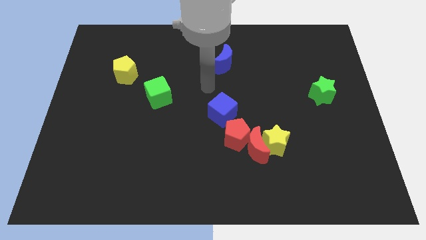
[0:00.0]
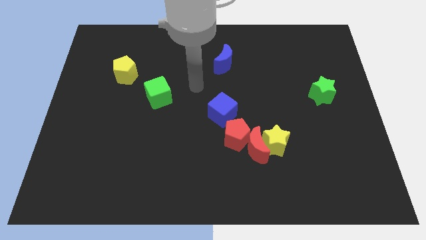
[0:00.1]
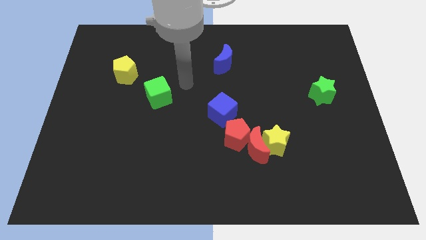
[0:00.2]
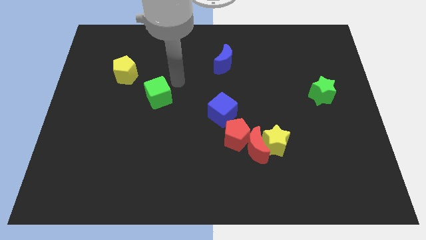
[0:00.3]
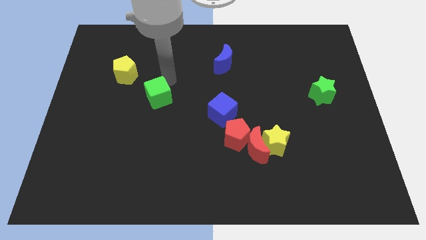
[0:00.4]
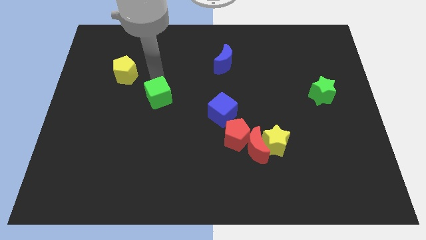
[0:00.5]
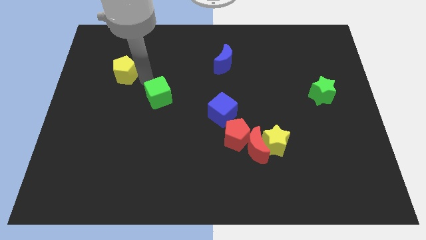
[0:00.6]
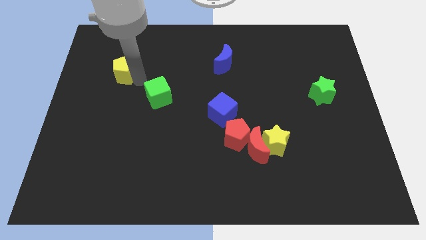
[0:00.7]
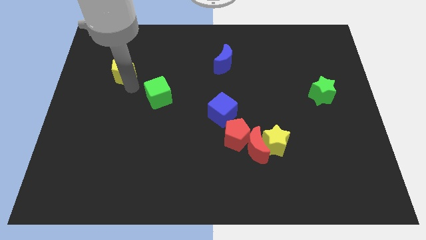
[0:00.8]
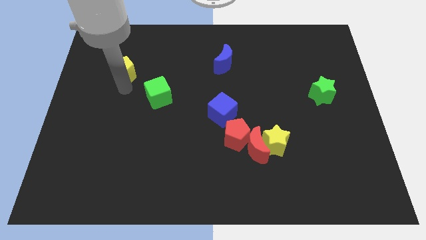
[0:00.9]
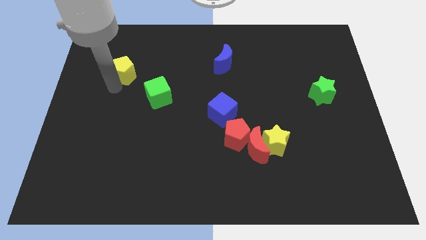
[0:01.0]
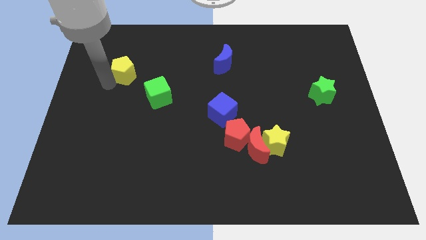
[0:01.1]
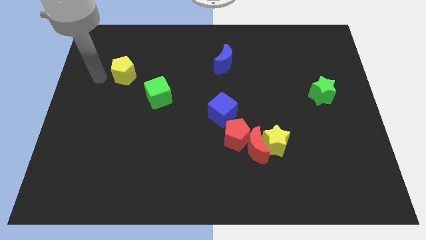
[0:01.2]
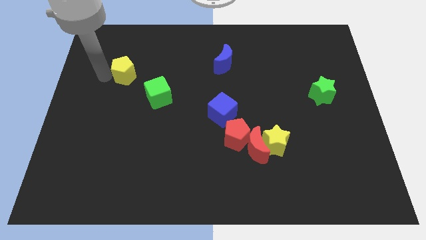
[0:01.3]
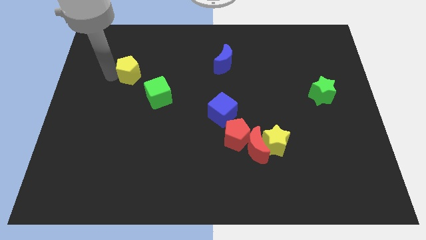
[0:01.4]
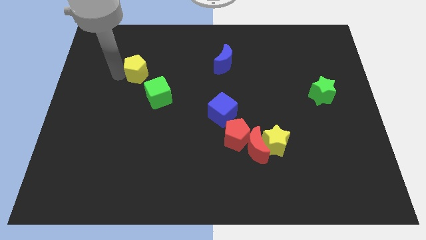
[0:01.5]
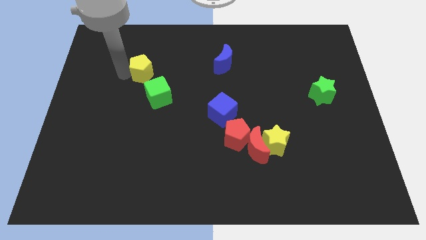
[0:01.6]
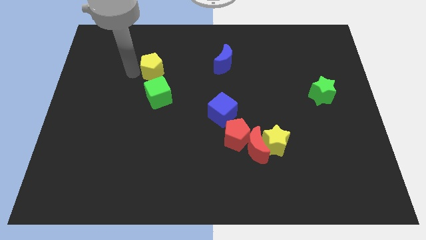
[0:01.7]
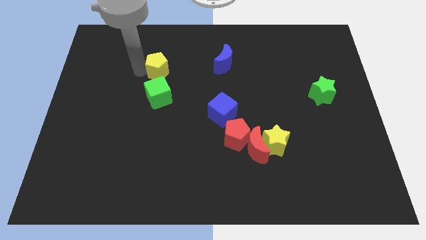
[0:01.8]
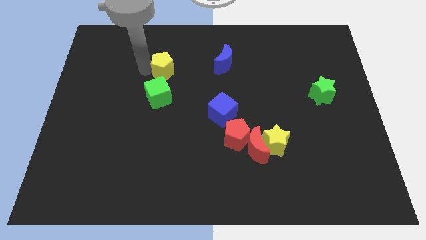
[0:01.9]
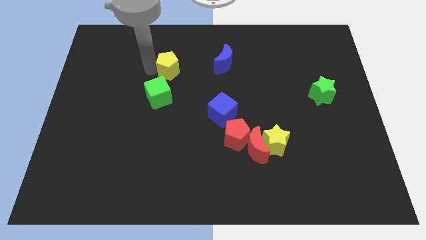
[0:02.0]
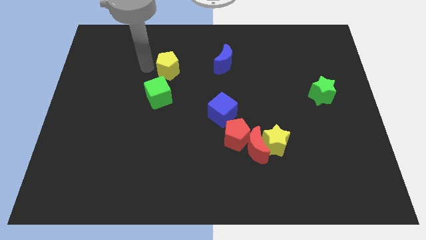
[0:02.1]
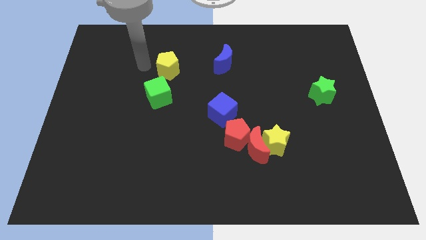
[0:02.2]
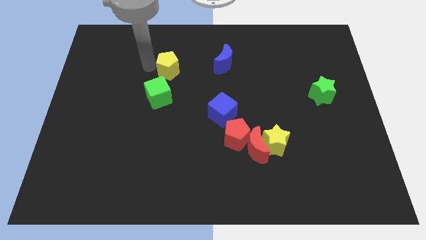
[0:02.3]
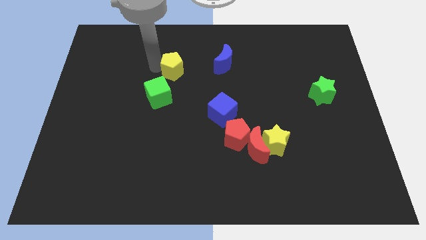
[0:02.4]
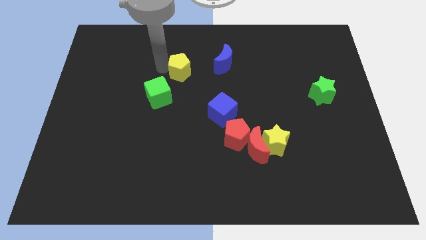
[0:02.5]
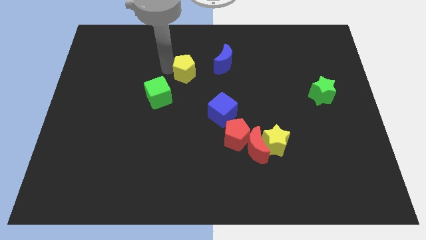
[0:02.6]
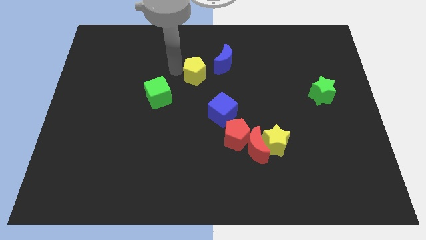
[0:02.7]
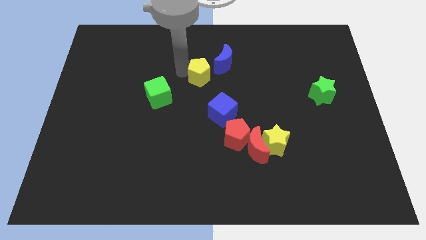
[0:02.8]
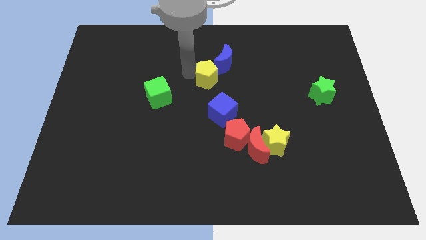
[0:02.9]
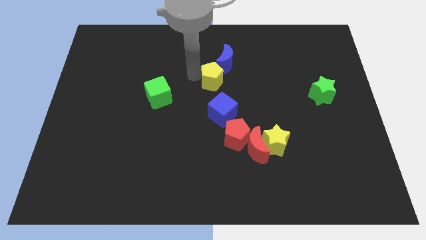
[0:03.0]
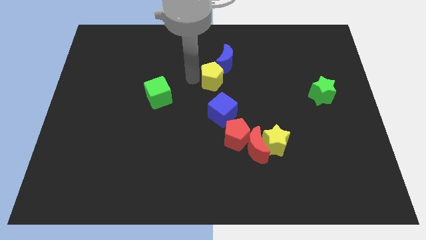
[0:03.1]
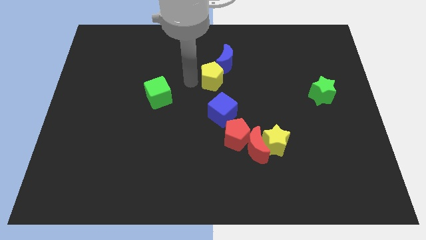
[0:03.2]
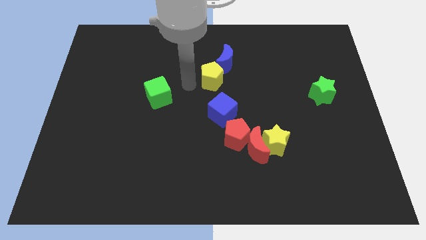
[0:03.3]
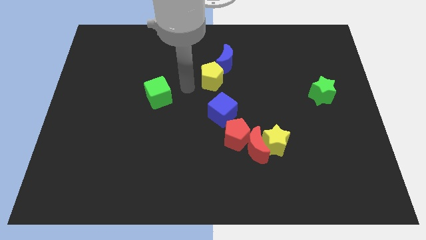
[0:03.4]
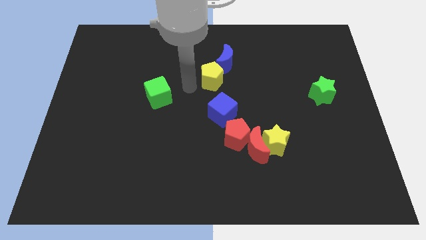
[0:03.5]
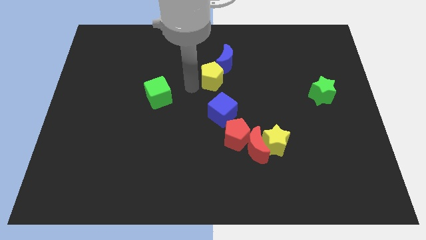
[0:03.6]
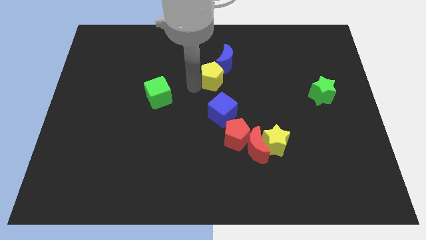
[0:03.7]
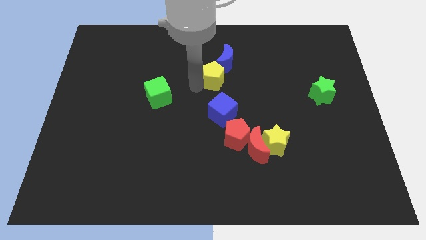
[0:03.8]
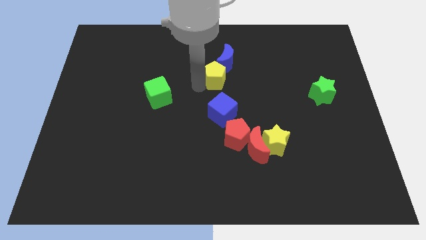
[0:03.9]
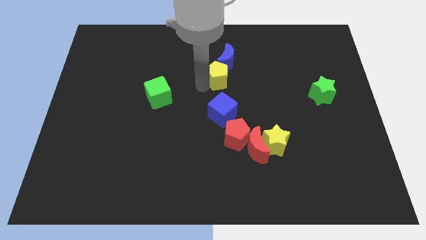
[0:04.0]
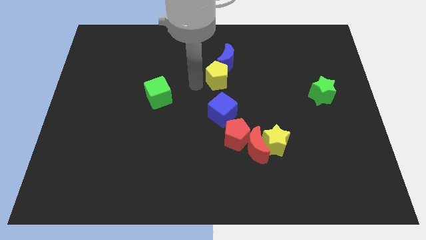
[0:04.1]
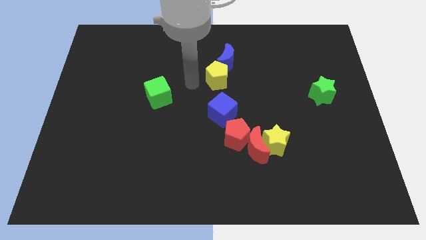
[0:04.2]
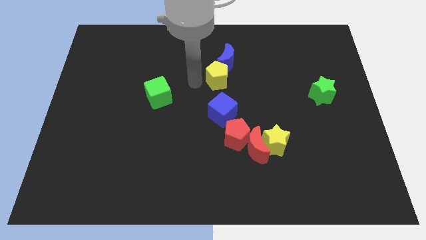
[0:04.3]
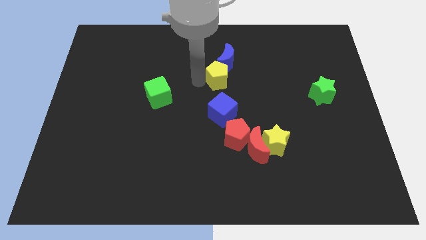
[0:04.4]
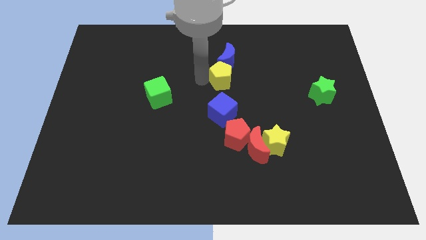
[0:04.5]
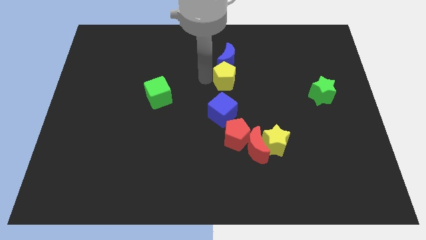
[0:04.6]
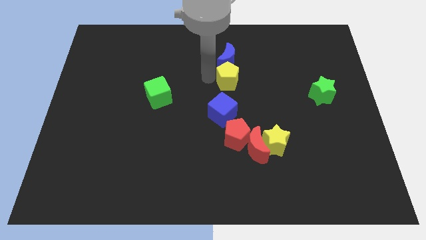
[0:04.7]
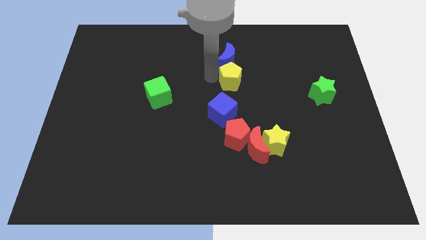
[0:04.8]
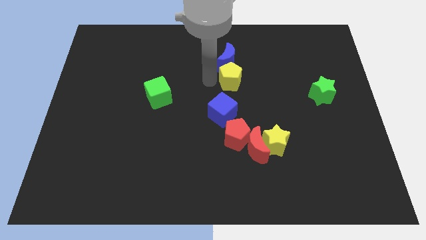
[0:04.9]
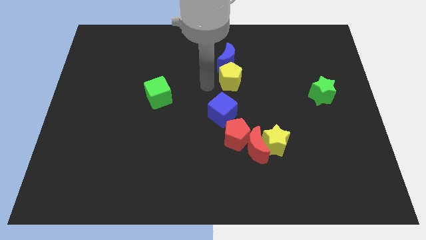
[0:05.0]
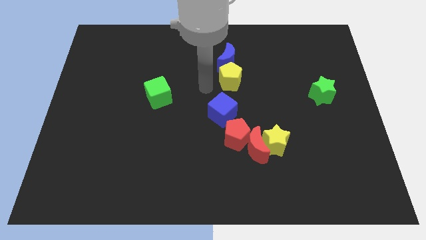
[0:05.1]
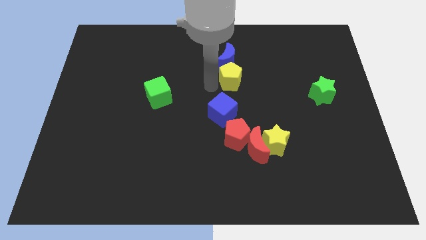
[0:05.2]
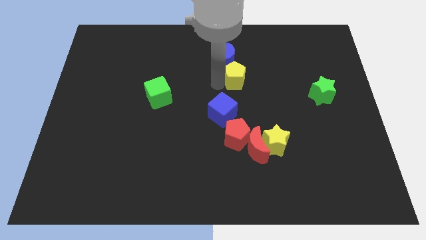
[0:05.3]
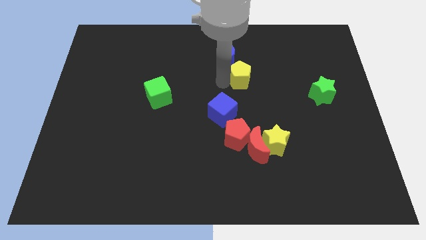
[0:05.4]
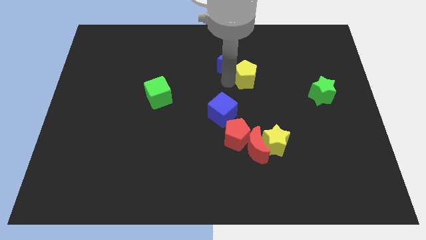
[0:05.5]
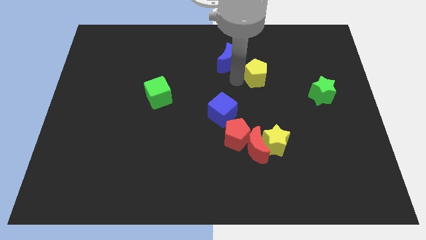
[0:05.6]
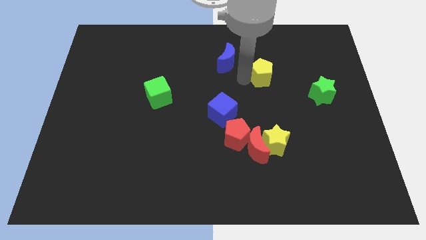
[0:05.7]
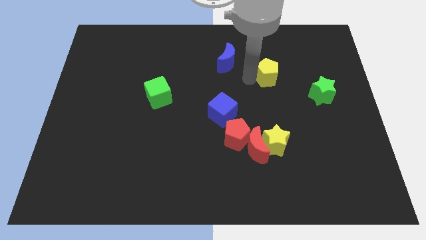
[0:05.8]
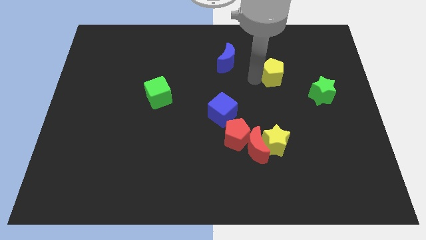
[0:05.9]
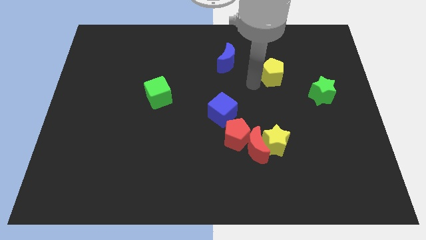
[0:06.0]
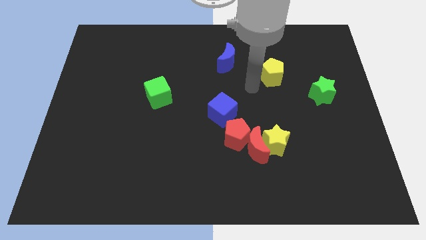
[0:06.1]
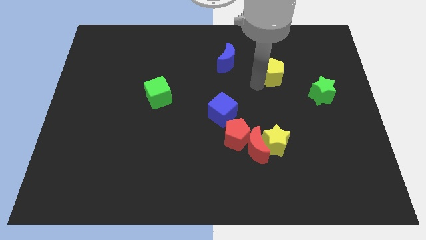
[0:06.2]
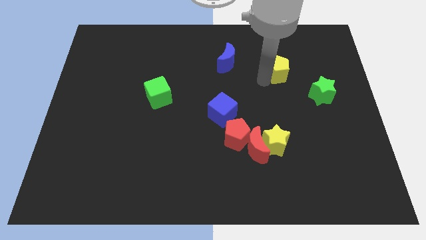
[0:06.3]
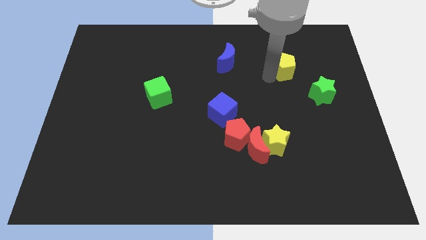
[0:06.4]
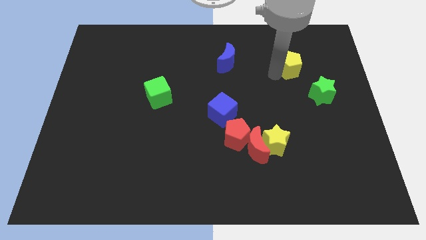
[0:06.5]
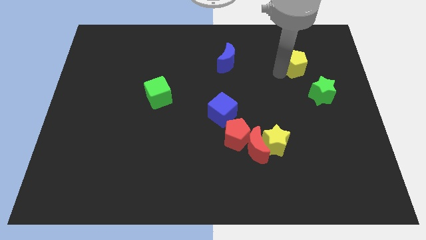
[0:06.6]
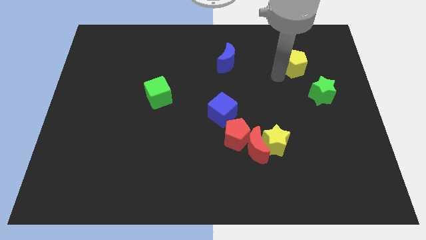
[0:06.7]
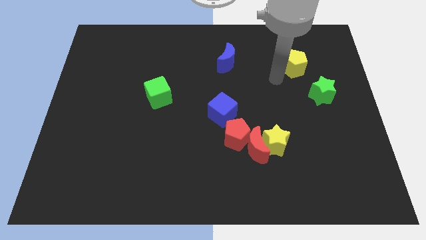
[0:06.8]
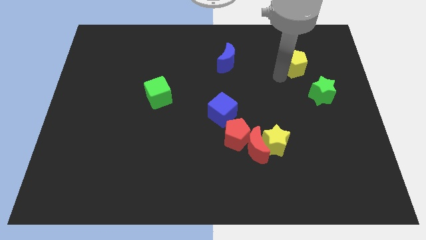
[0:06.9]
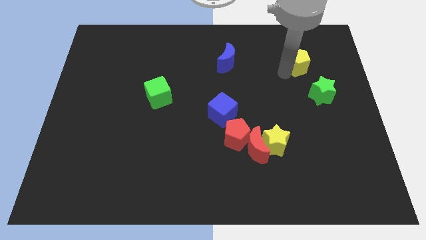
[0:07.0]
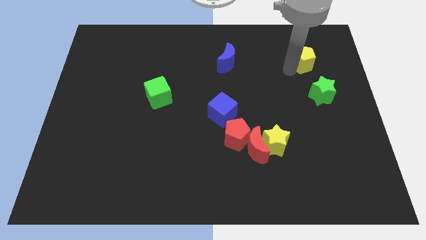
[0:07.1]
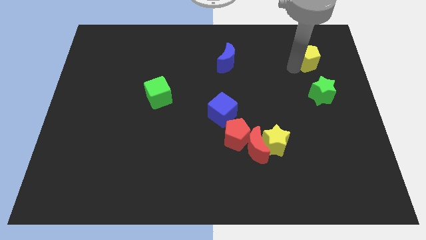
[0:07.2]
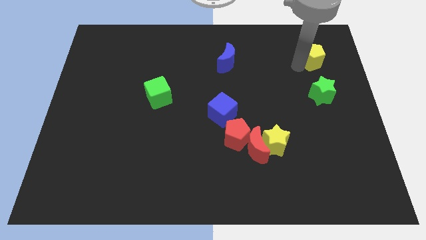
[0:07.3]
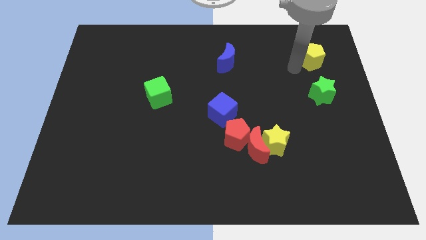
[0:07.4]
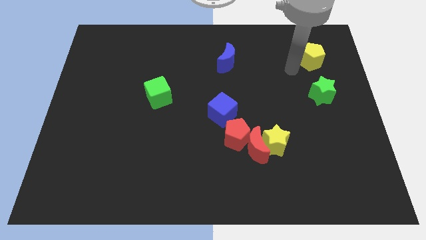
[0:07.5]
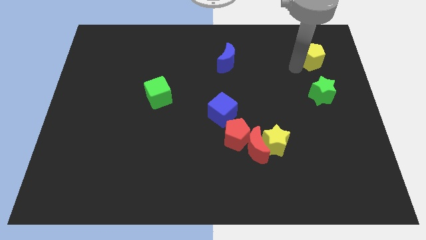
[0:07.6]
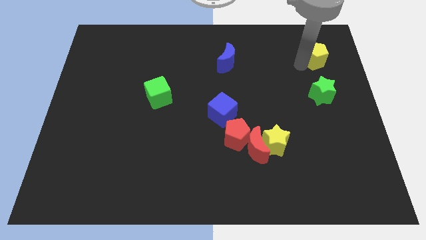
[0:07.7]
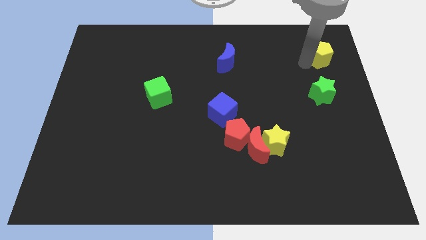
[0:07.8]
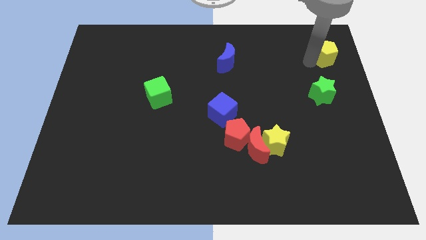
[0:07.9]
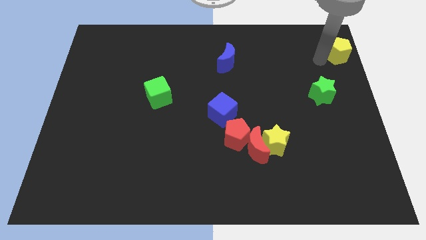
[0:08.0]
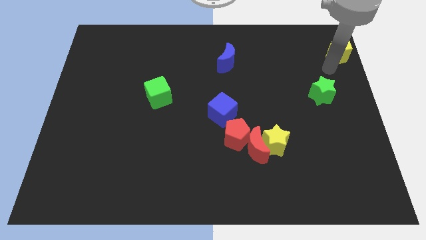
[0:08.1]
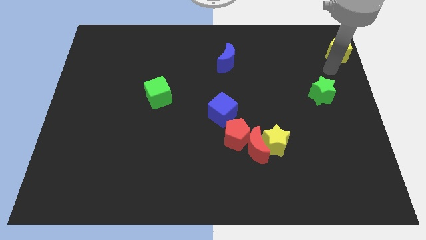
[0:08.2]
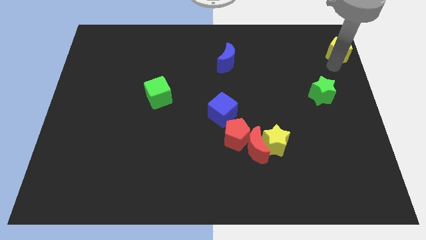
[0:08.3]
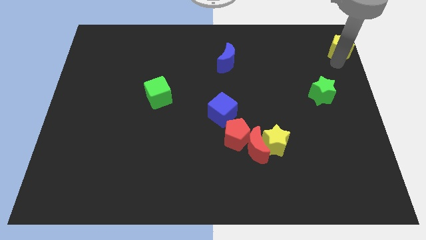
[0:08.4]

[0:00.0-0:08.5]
slide the yellow pentagon to the upper right corner
